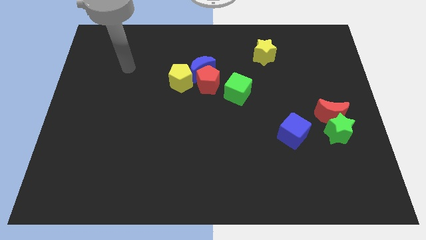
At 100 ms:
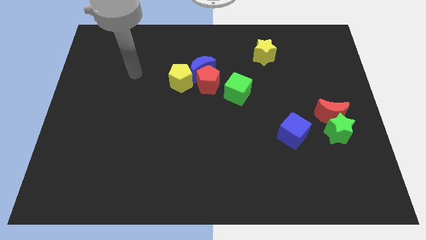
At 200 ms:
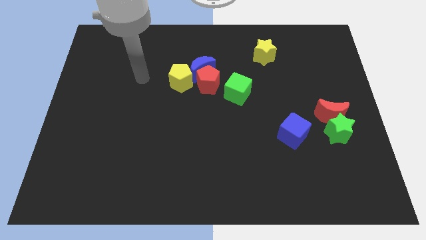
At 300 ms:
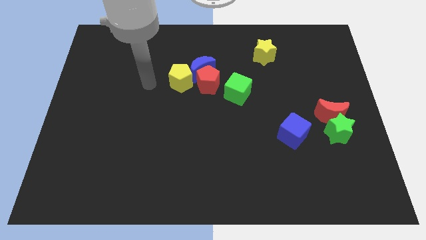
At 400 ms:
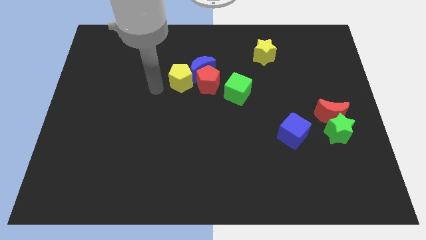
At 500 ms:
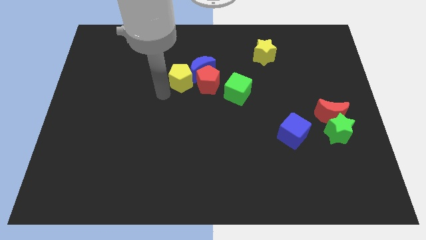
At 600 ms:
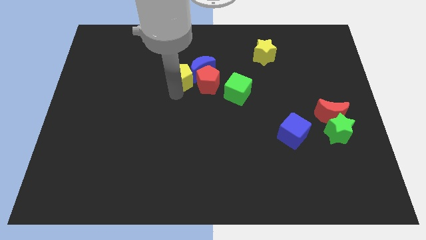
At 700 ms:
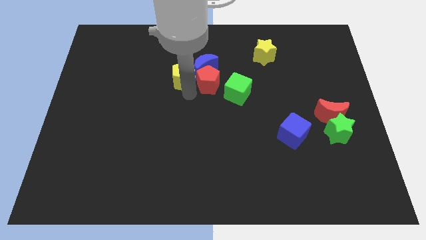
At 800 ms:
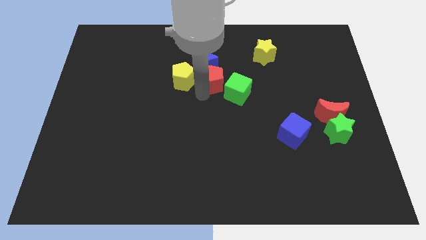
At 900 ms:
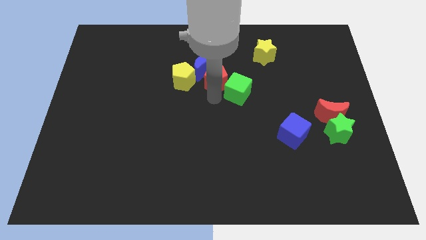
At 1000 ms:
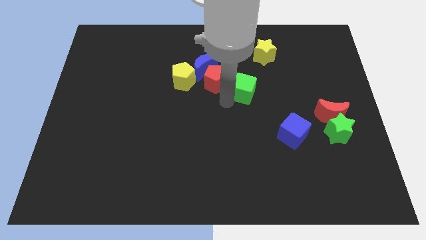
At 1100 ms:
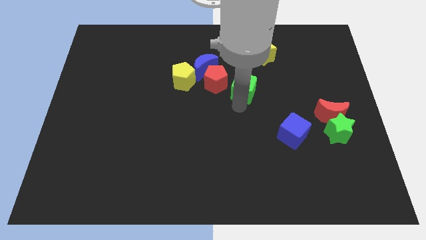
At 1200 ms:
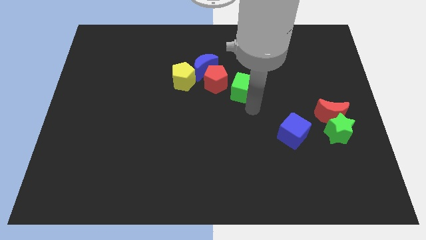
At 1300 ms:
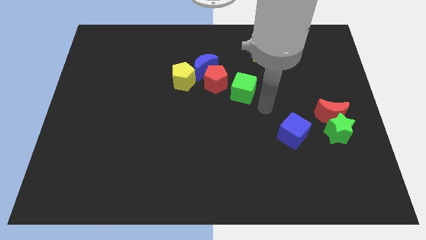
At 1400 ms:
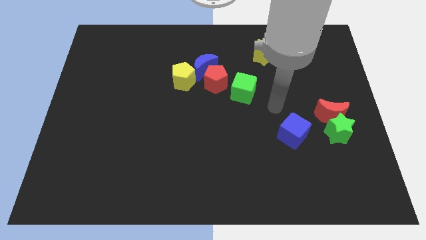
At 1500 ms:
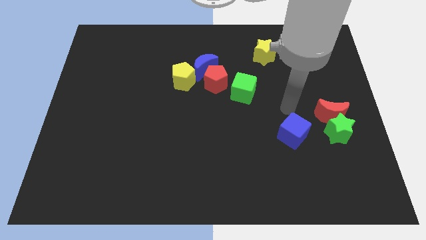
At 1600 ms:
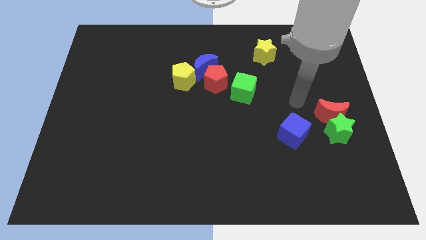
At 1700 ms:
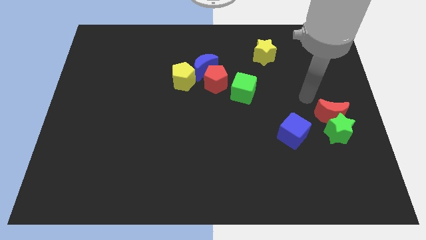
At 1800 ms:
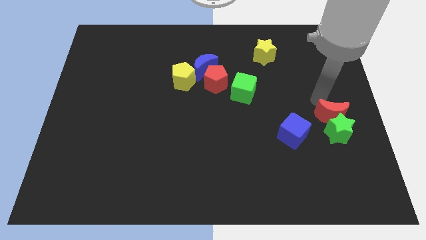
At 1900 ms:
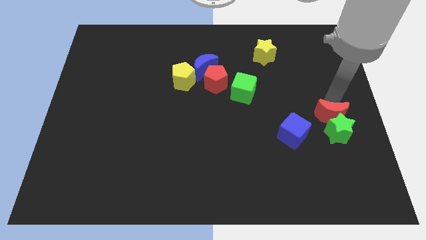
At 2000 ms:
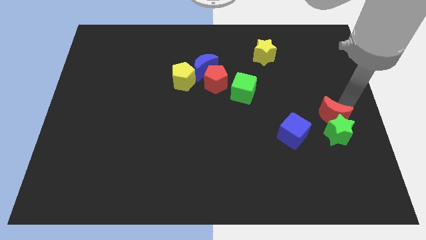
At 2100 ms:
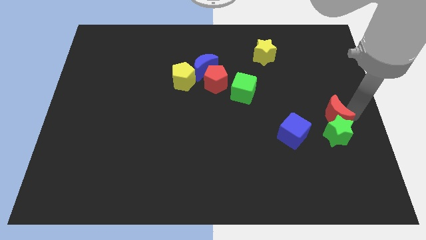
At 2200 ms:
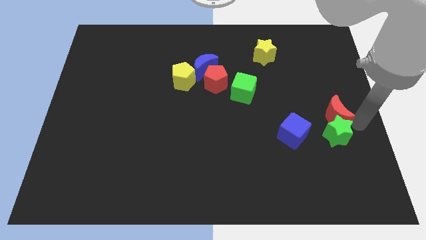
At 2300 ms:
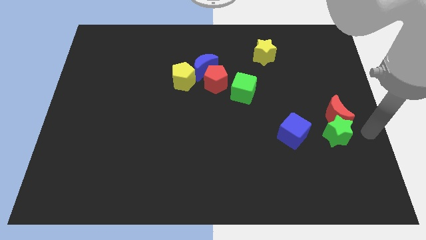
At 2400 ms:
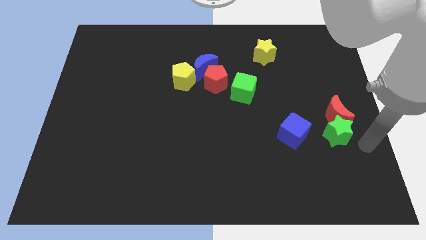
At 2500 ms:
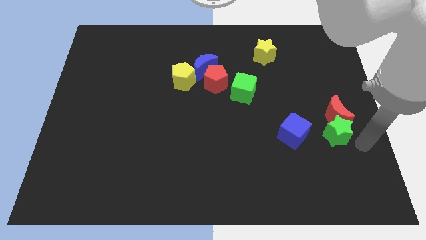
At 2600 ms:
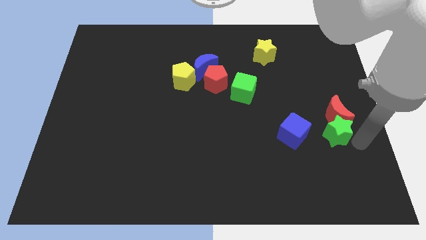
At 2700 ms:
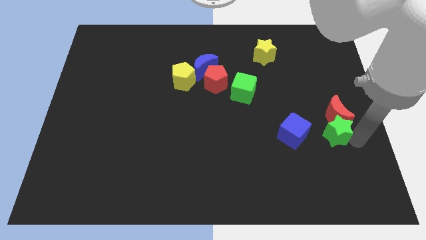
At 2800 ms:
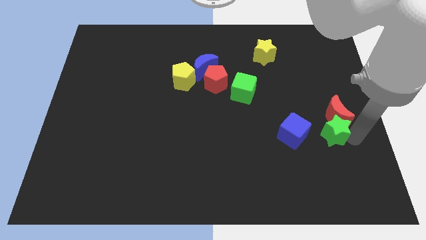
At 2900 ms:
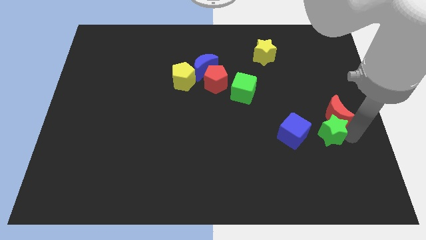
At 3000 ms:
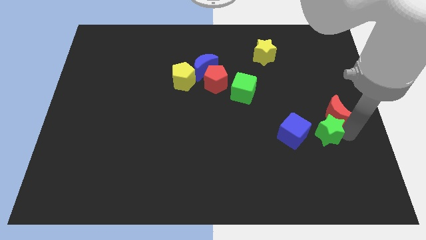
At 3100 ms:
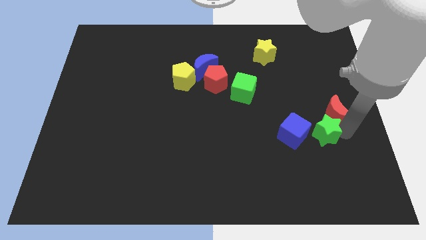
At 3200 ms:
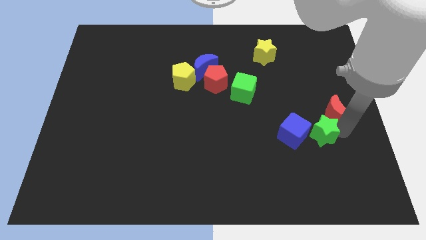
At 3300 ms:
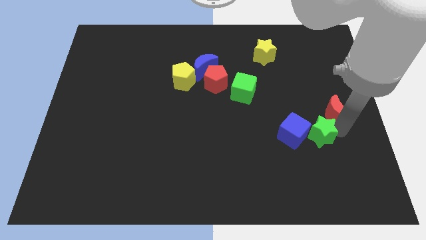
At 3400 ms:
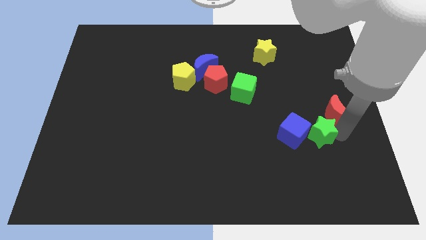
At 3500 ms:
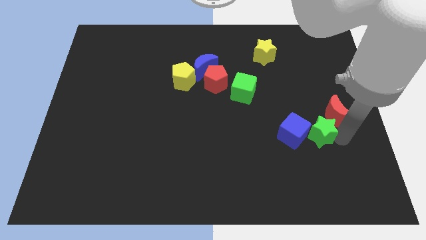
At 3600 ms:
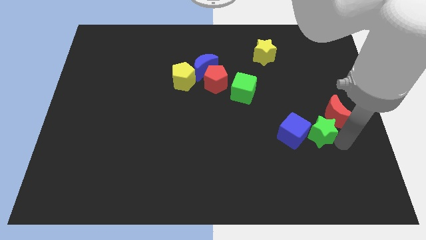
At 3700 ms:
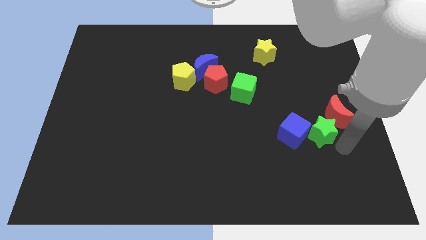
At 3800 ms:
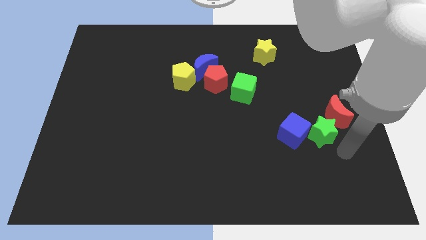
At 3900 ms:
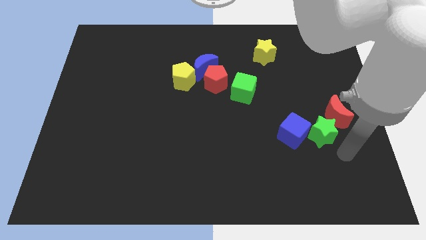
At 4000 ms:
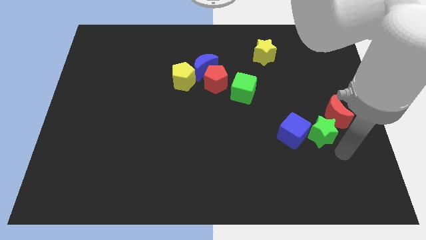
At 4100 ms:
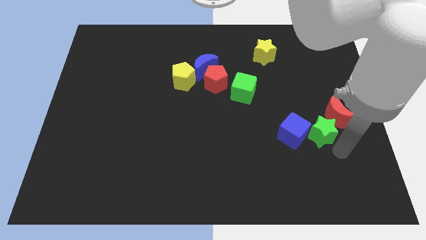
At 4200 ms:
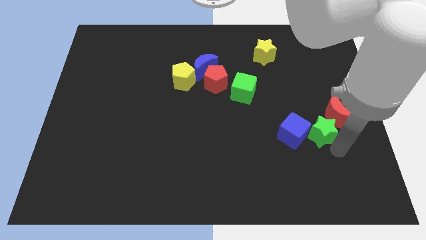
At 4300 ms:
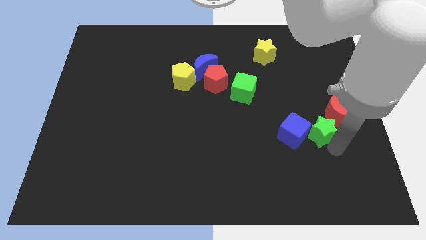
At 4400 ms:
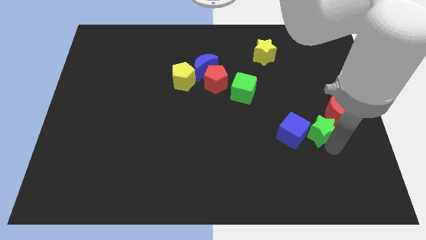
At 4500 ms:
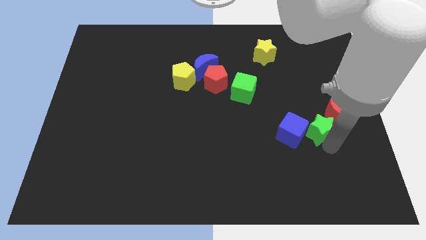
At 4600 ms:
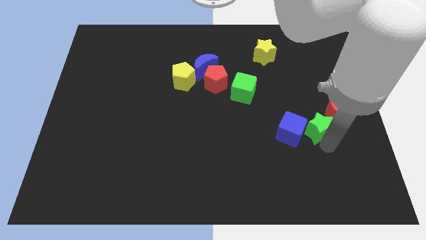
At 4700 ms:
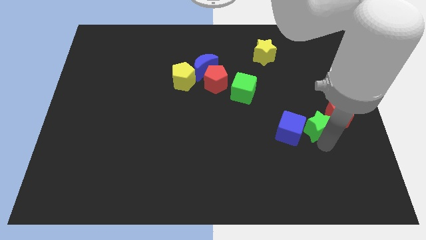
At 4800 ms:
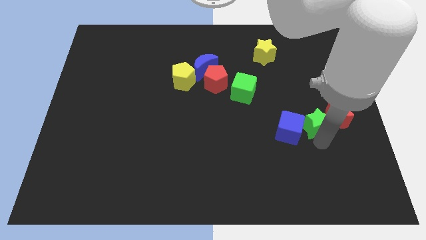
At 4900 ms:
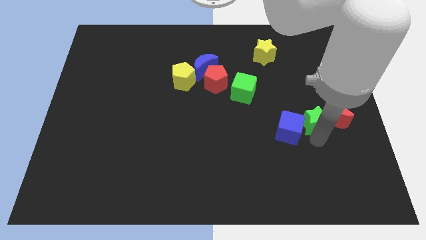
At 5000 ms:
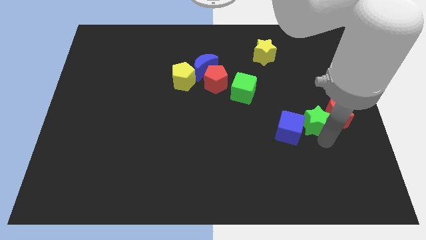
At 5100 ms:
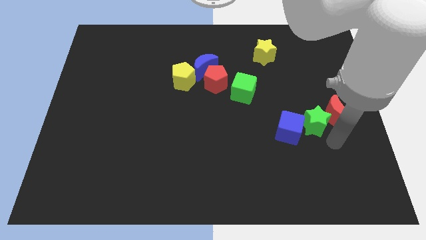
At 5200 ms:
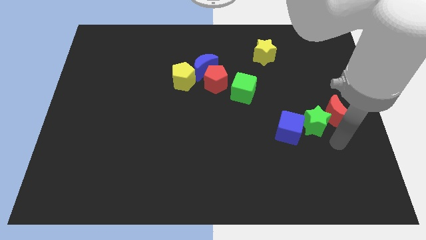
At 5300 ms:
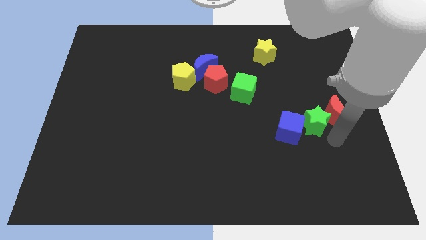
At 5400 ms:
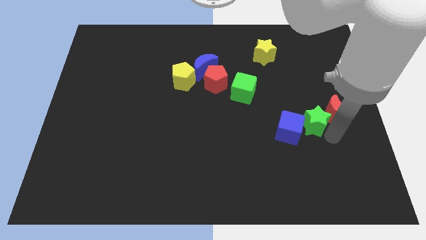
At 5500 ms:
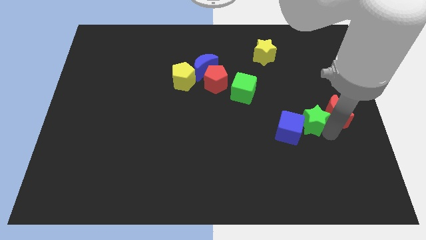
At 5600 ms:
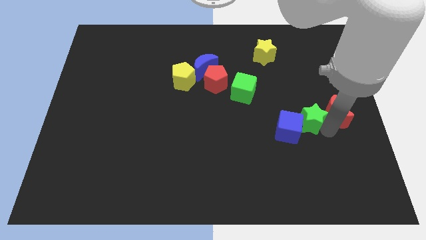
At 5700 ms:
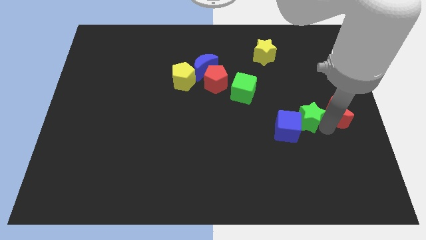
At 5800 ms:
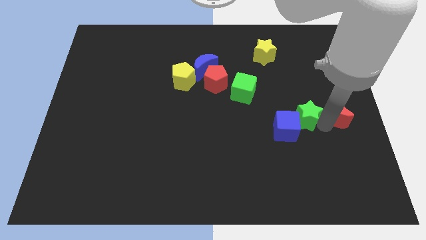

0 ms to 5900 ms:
slightly slide the green star diagonally upwards and to the left

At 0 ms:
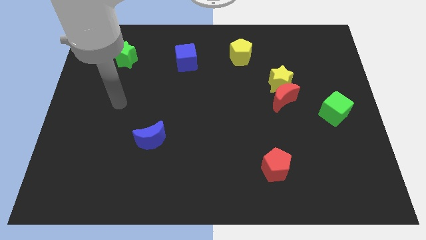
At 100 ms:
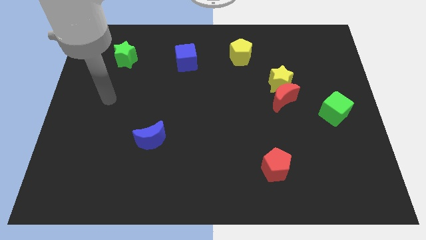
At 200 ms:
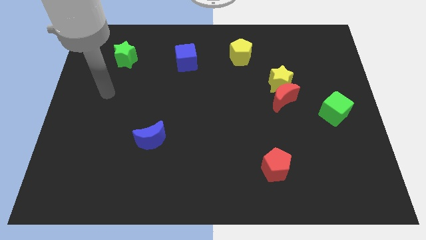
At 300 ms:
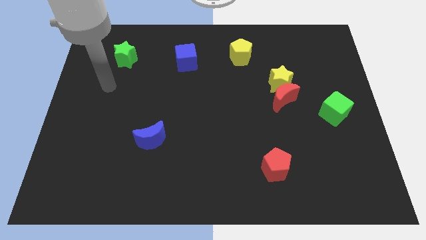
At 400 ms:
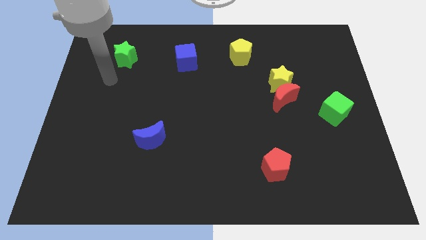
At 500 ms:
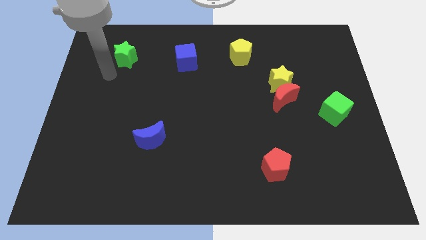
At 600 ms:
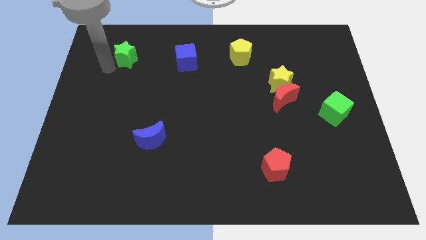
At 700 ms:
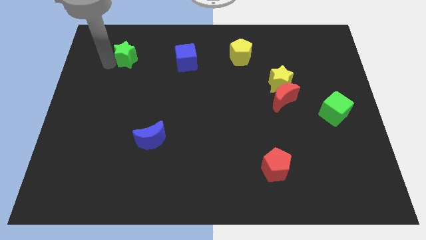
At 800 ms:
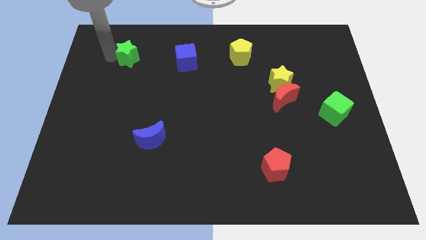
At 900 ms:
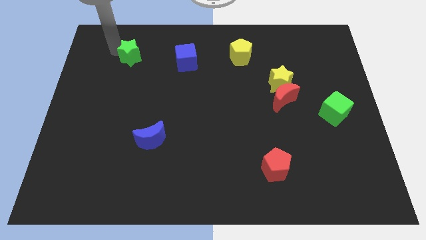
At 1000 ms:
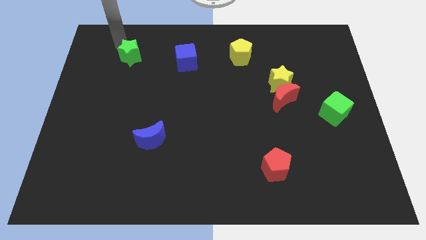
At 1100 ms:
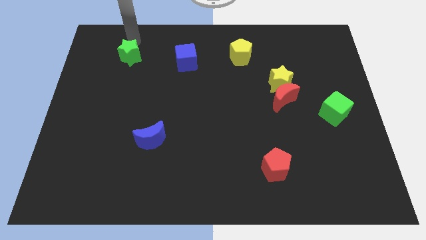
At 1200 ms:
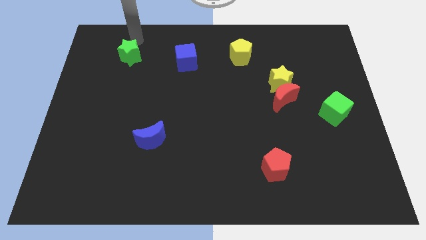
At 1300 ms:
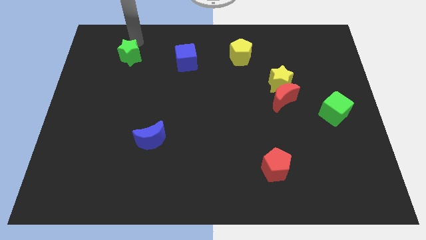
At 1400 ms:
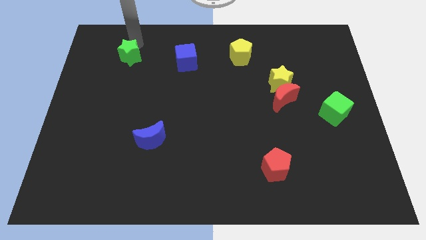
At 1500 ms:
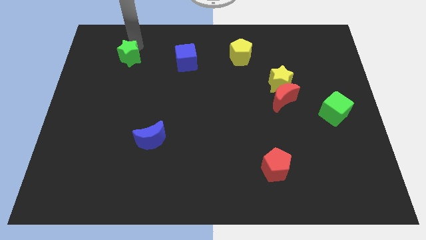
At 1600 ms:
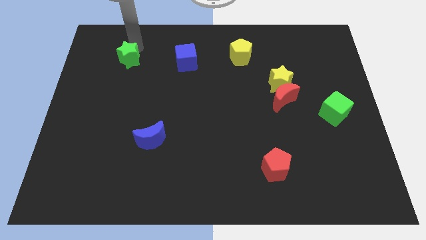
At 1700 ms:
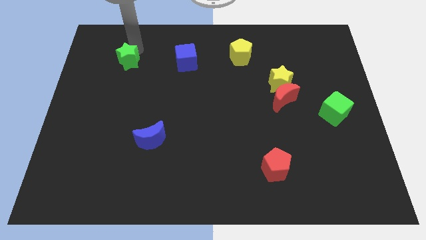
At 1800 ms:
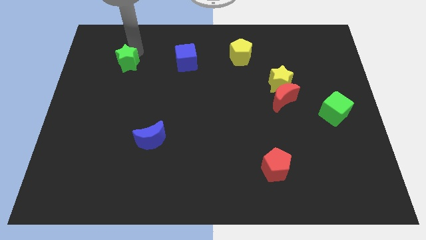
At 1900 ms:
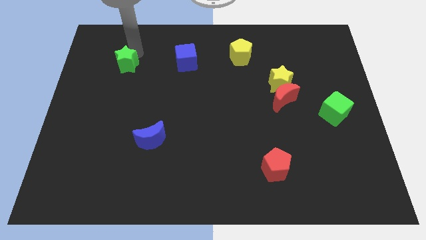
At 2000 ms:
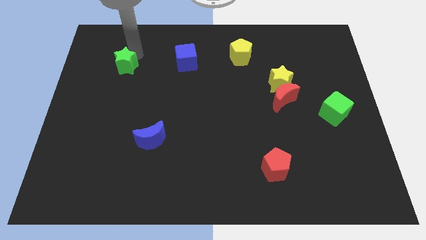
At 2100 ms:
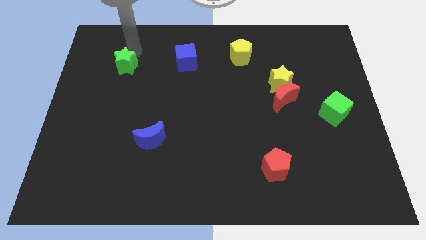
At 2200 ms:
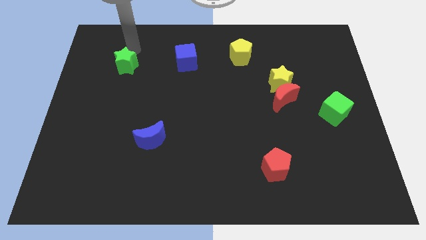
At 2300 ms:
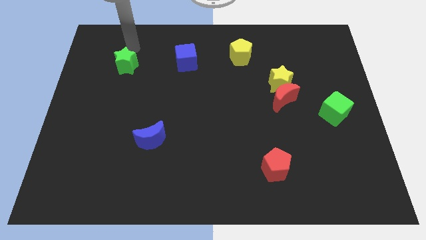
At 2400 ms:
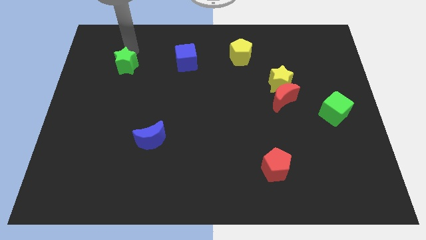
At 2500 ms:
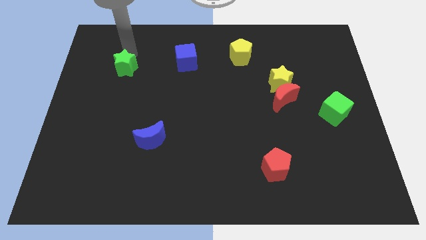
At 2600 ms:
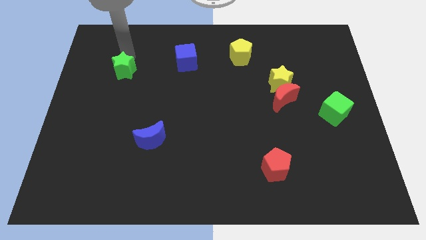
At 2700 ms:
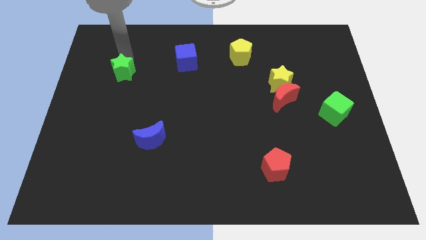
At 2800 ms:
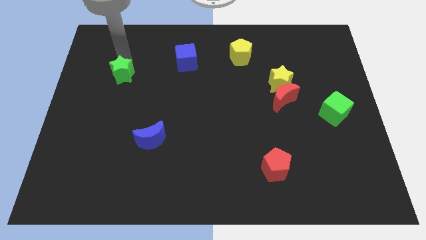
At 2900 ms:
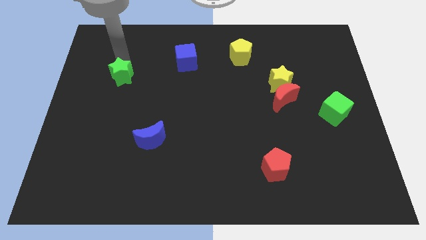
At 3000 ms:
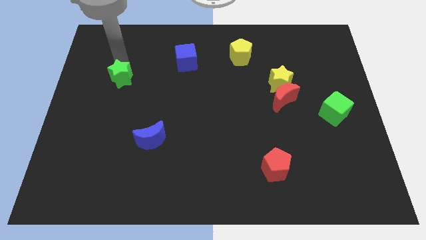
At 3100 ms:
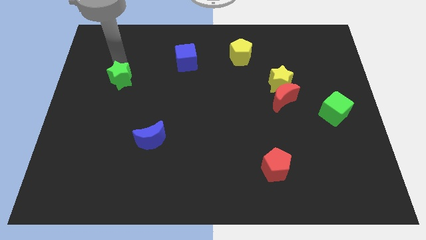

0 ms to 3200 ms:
slide the green star down a little
